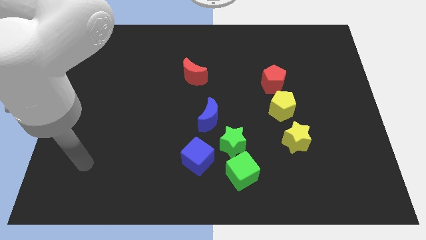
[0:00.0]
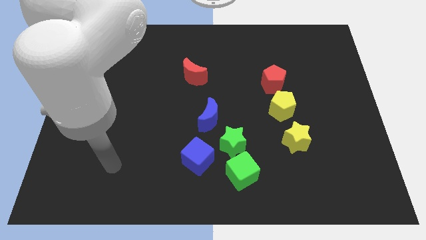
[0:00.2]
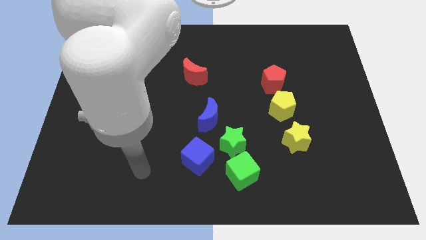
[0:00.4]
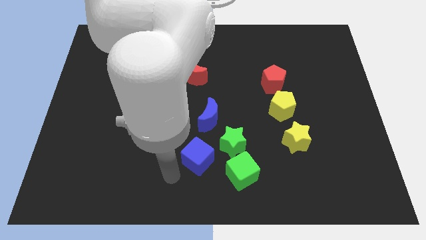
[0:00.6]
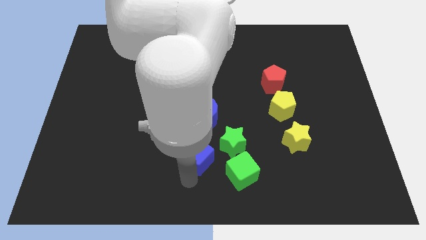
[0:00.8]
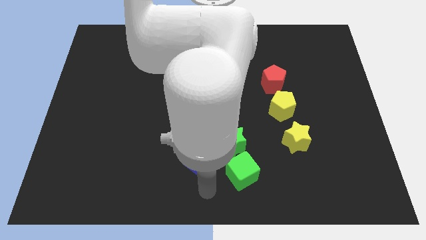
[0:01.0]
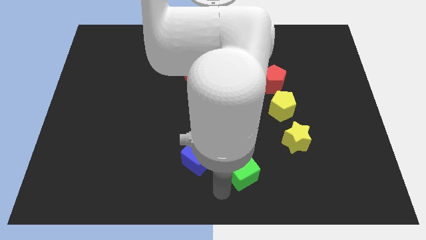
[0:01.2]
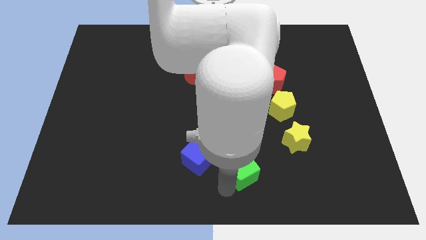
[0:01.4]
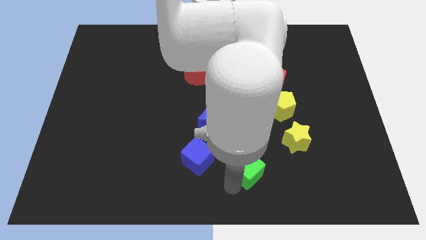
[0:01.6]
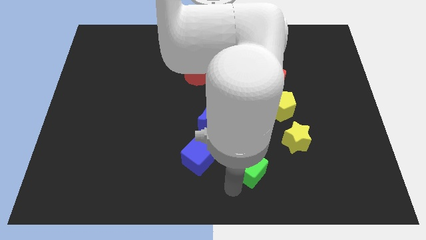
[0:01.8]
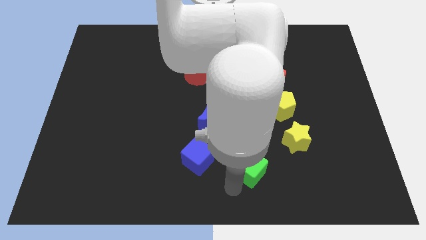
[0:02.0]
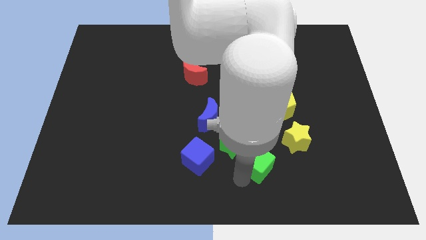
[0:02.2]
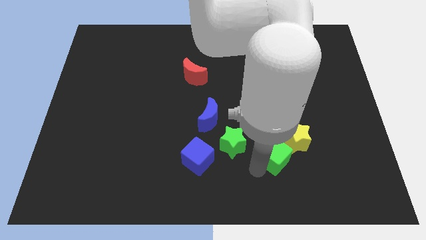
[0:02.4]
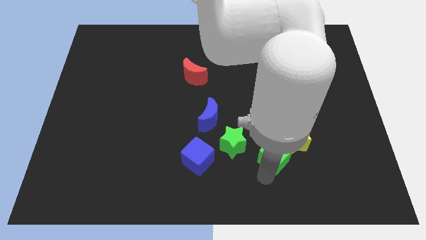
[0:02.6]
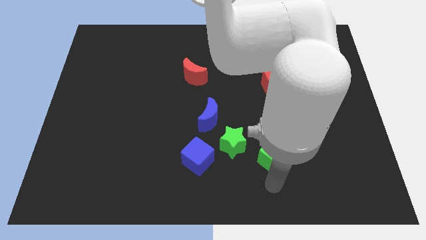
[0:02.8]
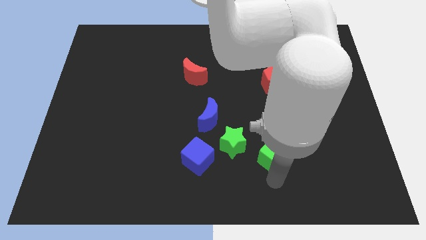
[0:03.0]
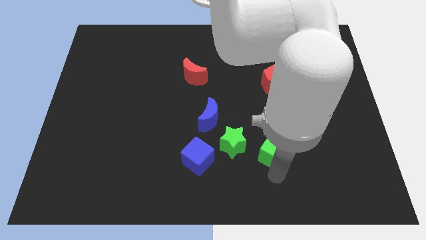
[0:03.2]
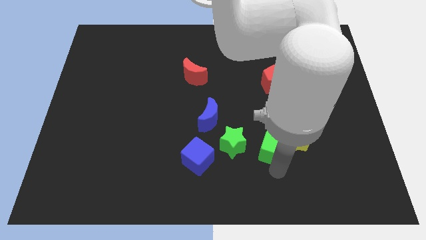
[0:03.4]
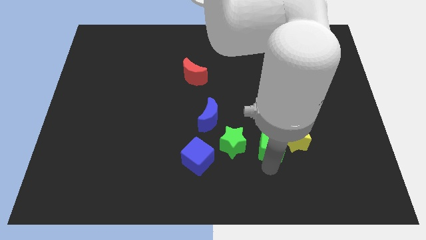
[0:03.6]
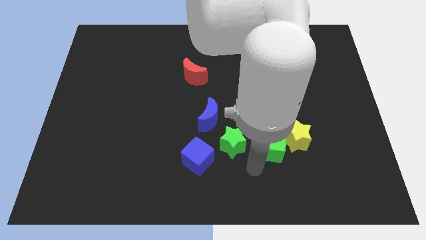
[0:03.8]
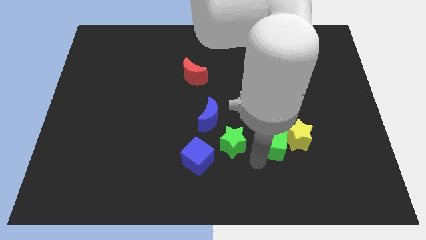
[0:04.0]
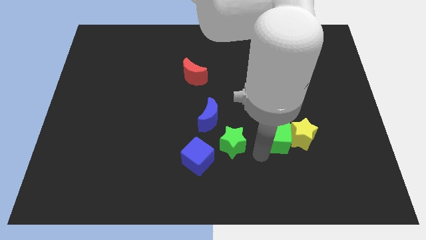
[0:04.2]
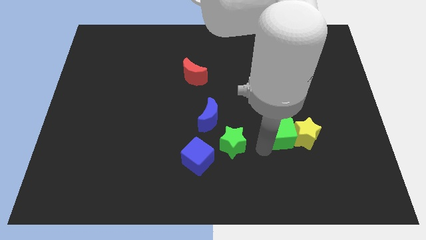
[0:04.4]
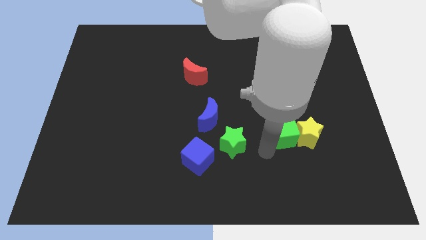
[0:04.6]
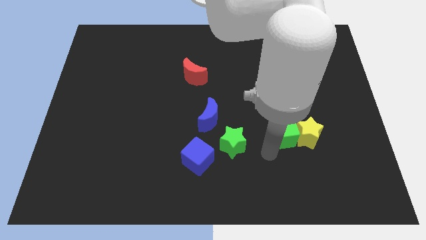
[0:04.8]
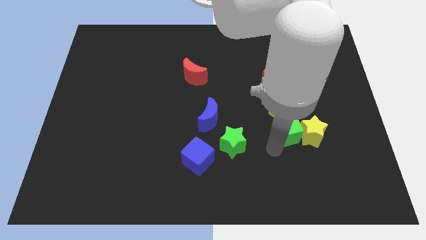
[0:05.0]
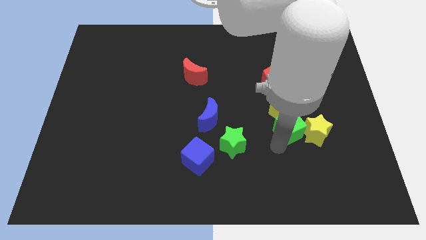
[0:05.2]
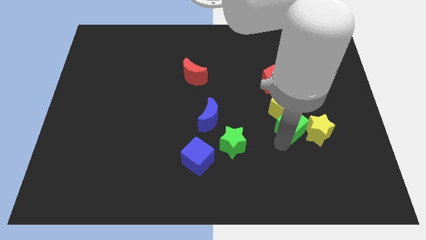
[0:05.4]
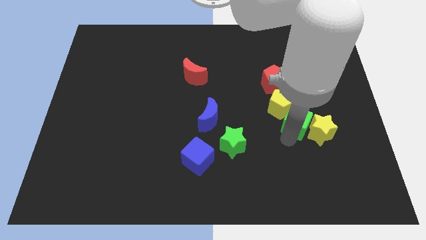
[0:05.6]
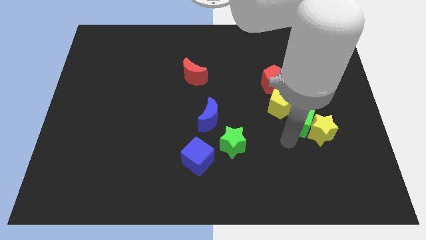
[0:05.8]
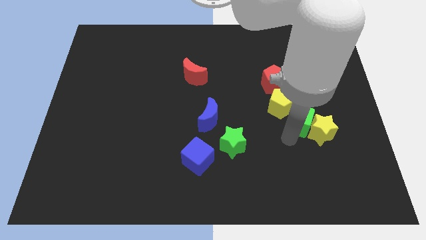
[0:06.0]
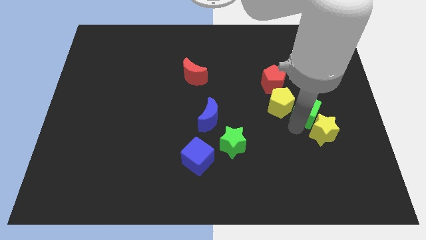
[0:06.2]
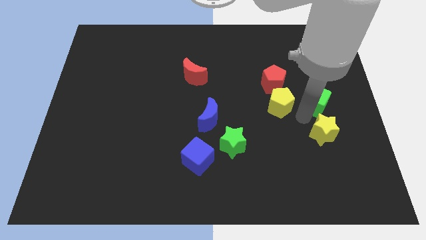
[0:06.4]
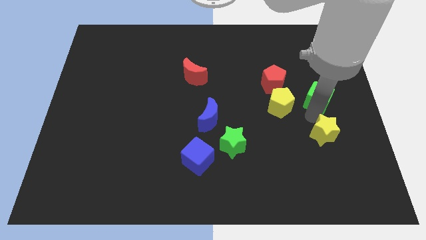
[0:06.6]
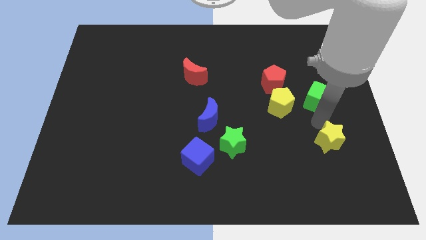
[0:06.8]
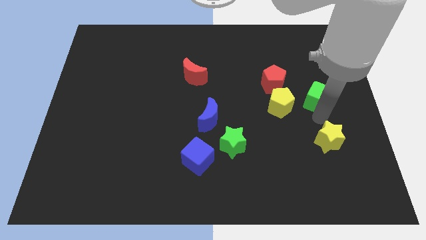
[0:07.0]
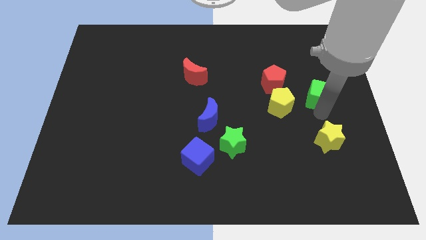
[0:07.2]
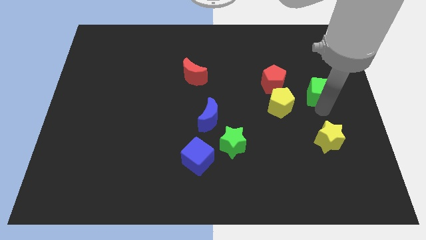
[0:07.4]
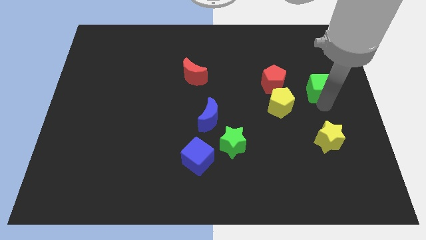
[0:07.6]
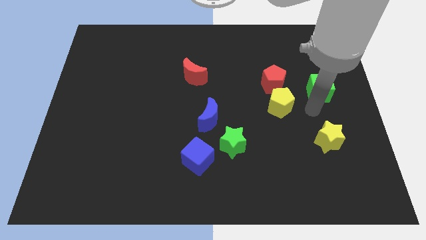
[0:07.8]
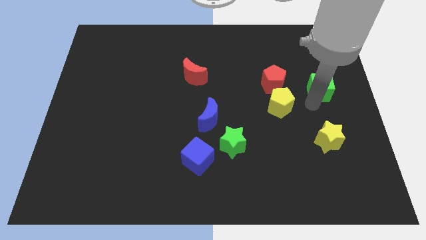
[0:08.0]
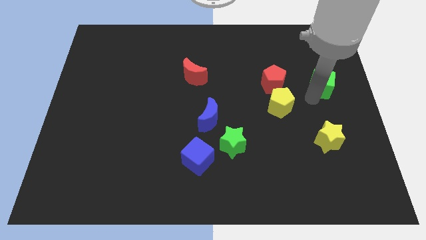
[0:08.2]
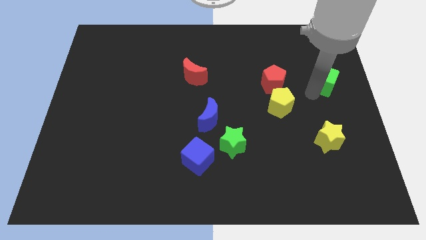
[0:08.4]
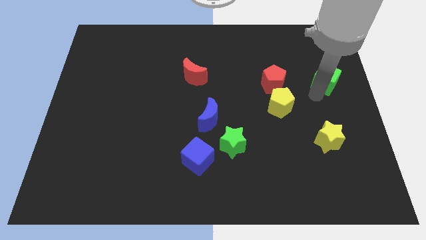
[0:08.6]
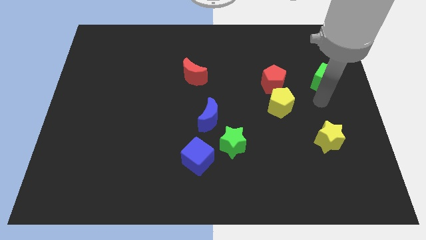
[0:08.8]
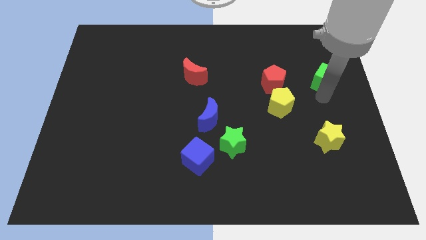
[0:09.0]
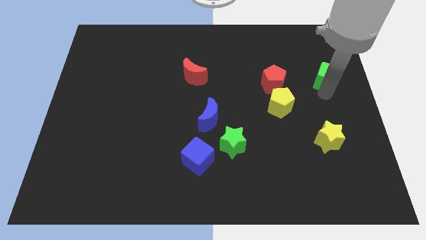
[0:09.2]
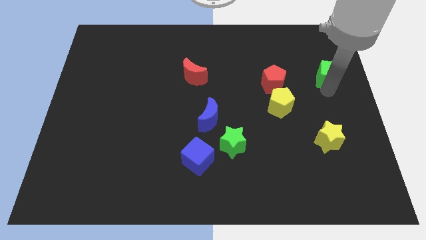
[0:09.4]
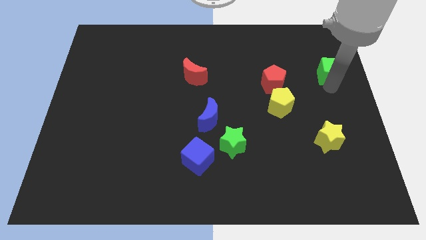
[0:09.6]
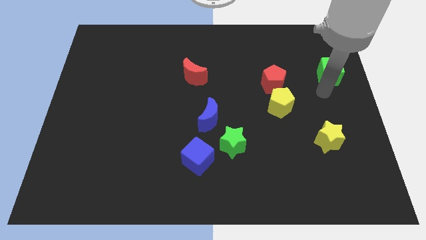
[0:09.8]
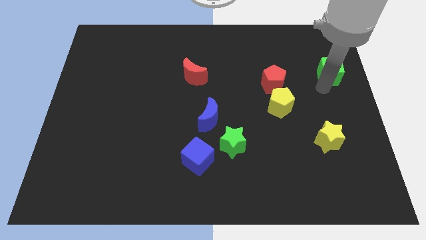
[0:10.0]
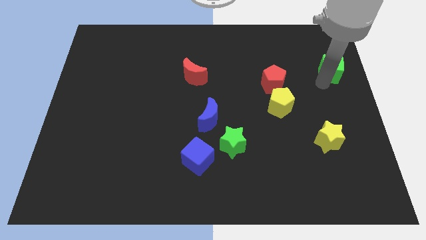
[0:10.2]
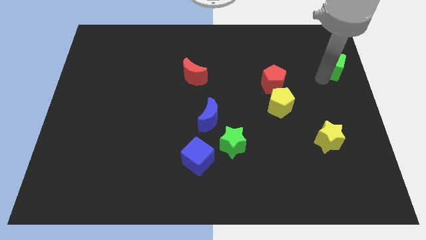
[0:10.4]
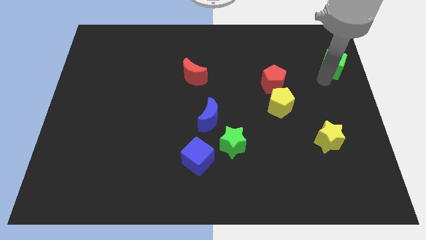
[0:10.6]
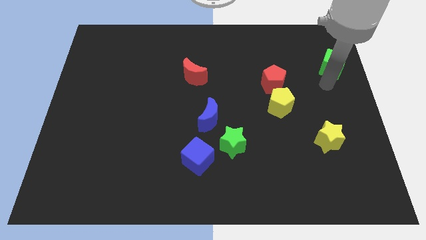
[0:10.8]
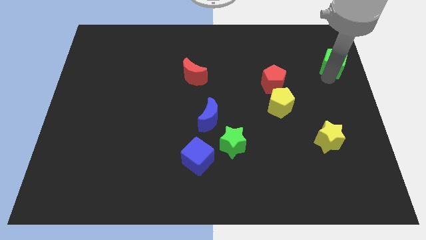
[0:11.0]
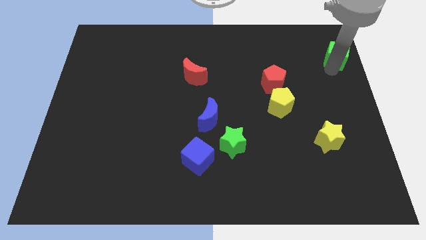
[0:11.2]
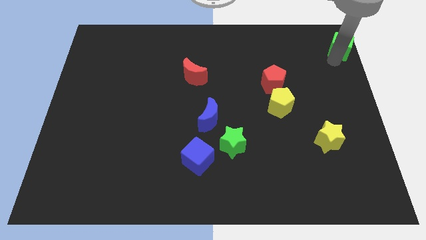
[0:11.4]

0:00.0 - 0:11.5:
put the green cube to the top right

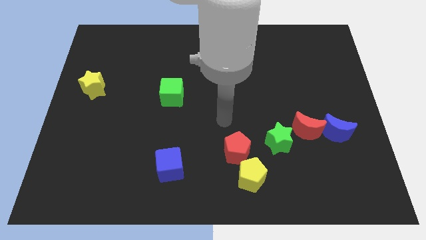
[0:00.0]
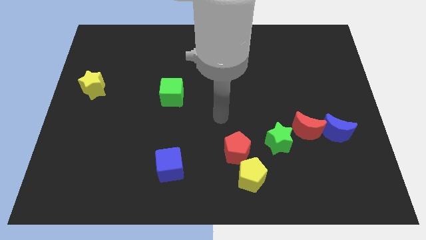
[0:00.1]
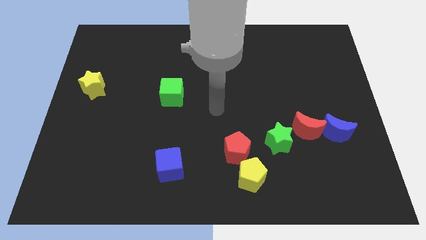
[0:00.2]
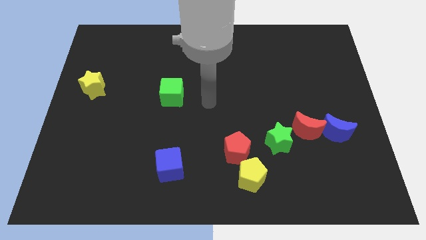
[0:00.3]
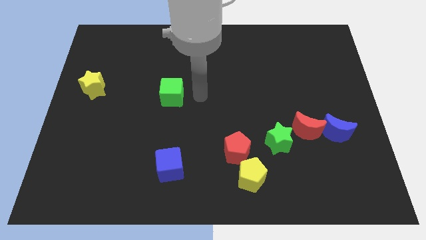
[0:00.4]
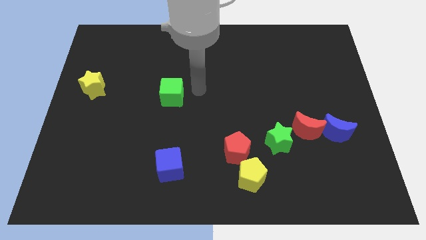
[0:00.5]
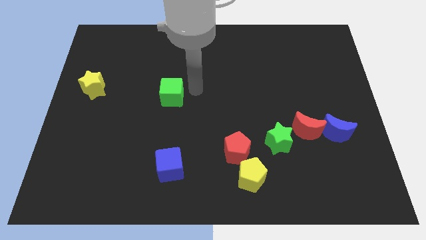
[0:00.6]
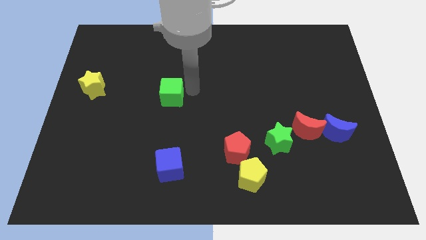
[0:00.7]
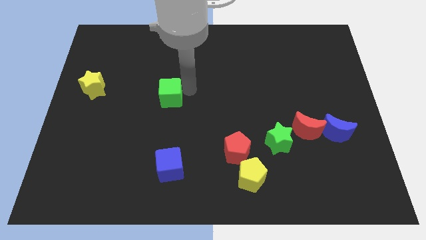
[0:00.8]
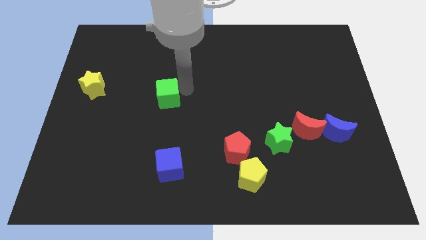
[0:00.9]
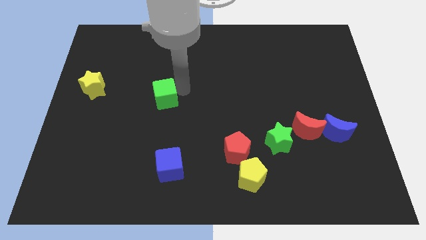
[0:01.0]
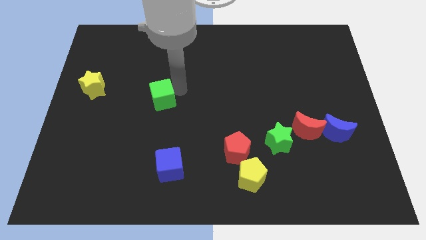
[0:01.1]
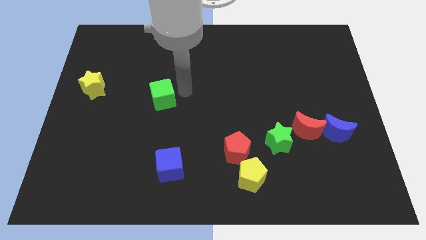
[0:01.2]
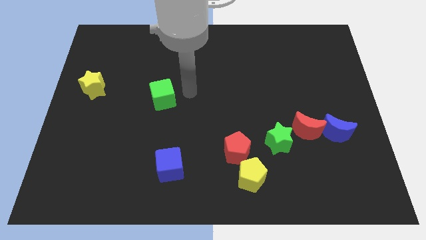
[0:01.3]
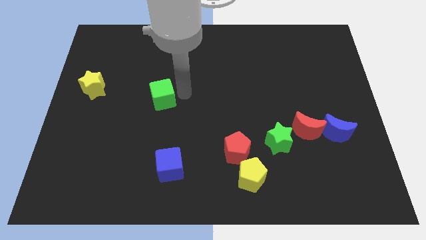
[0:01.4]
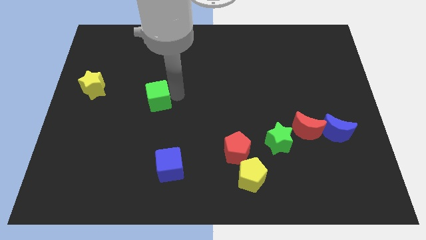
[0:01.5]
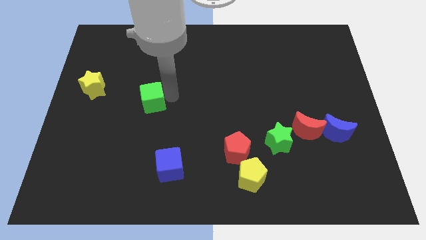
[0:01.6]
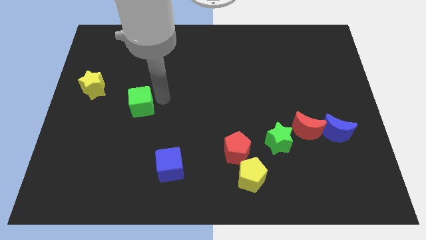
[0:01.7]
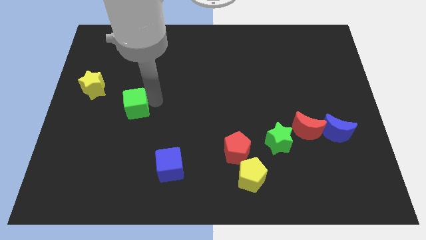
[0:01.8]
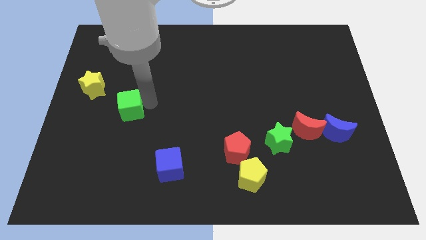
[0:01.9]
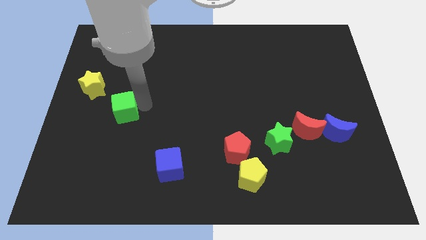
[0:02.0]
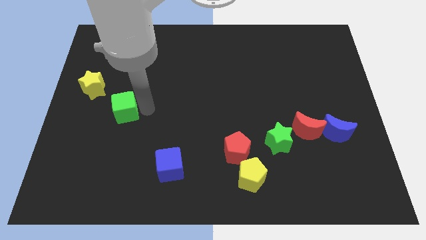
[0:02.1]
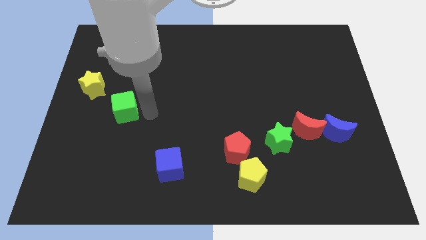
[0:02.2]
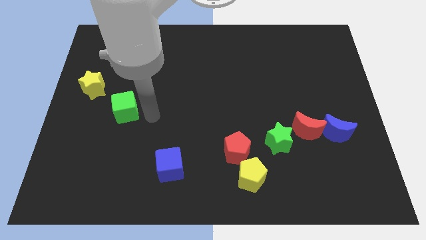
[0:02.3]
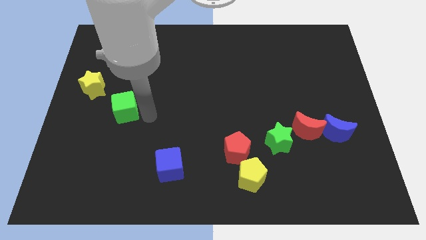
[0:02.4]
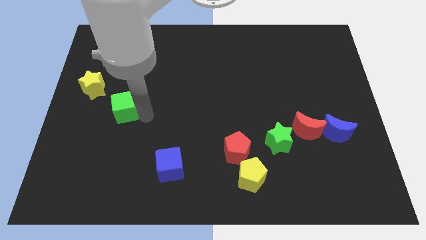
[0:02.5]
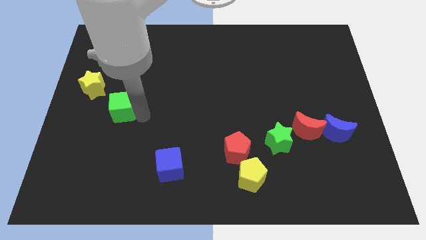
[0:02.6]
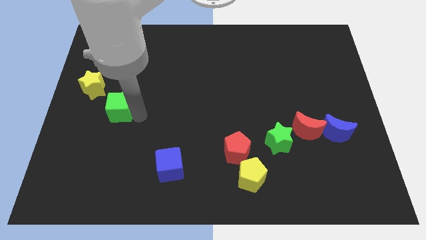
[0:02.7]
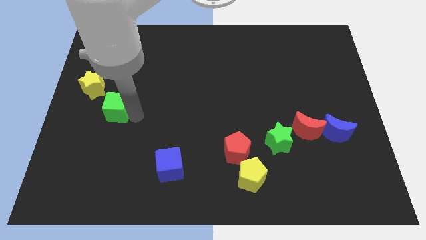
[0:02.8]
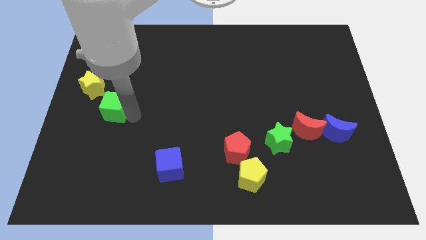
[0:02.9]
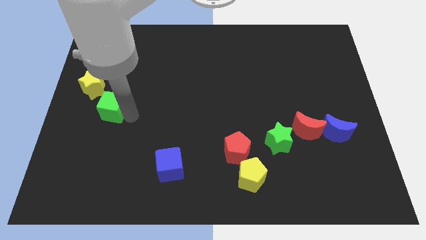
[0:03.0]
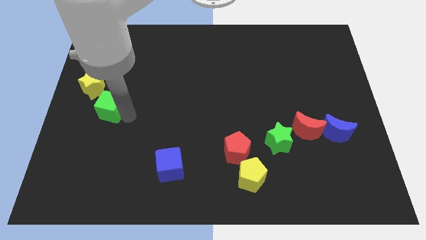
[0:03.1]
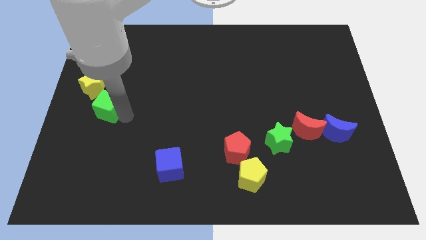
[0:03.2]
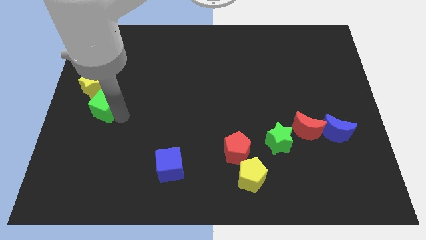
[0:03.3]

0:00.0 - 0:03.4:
put the green cube to the left side of the board
